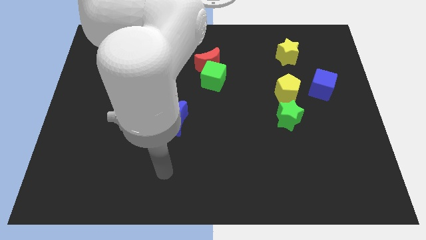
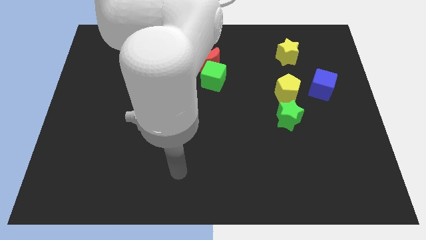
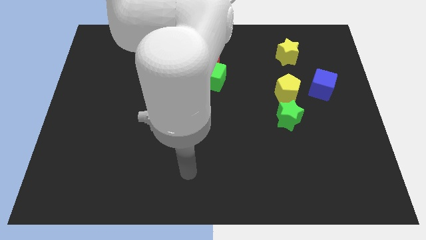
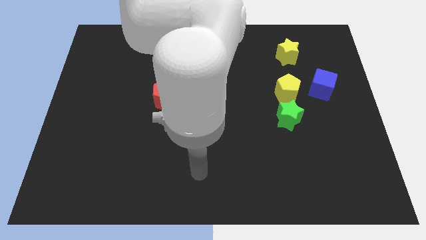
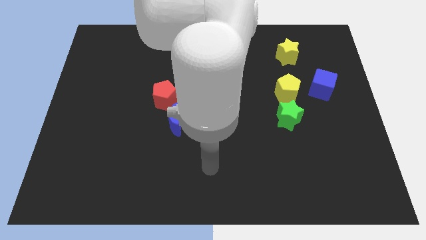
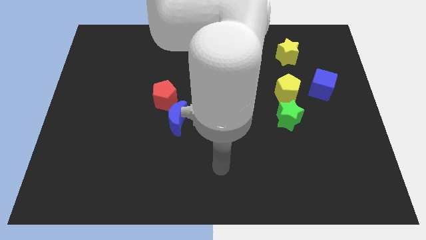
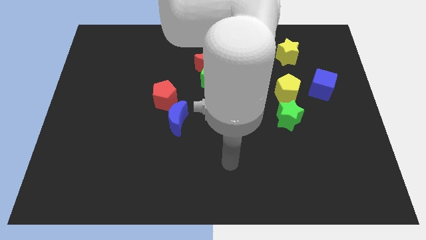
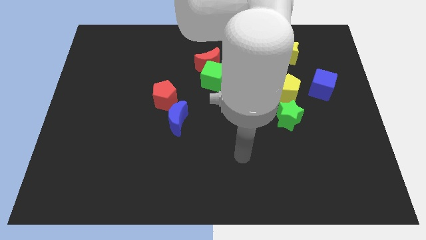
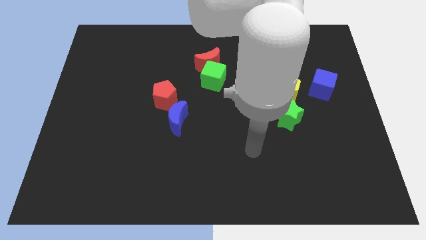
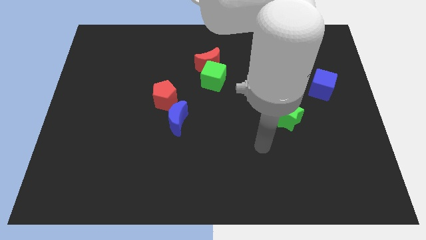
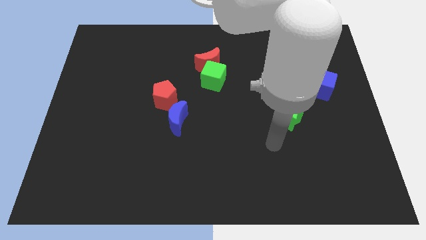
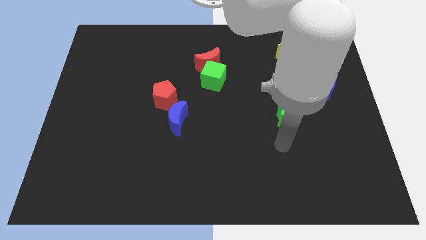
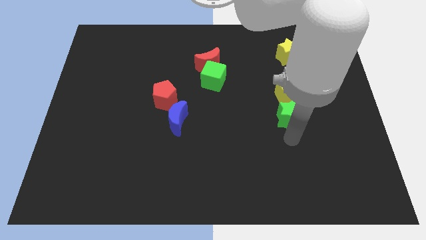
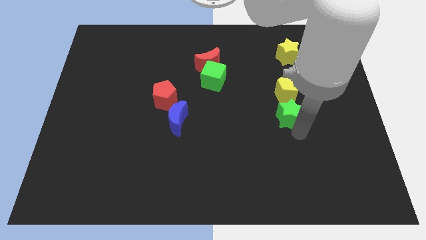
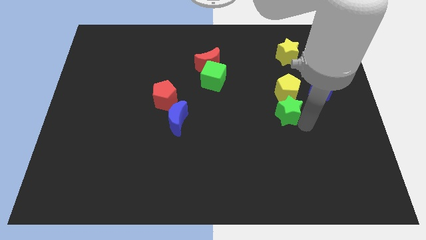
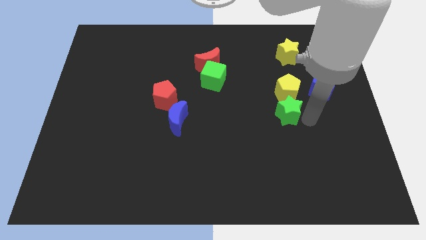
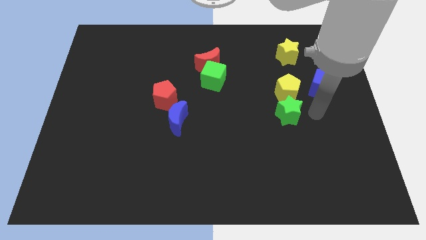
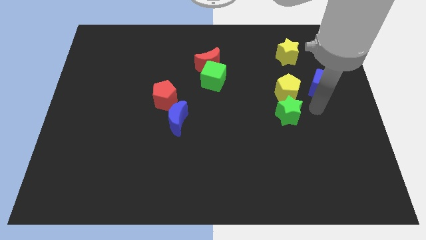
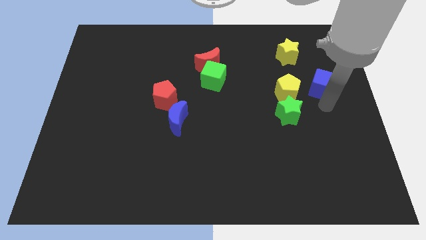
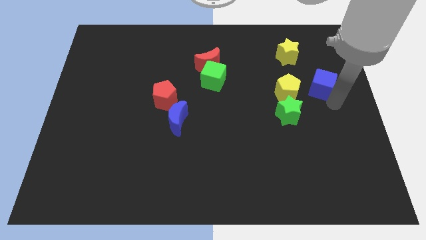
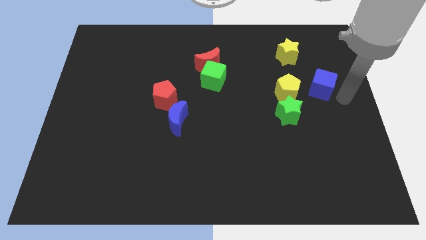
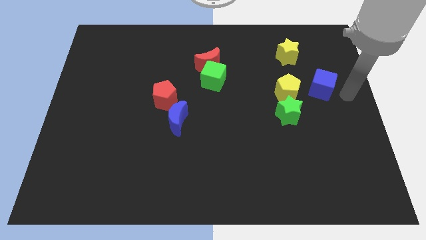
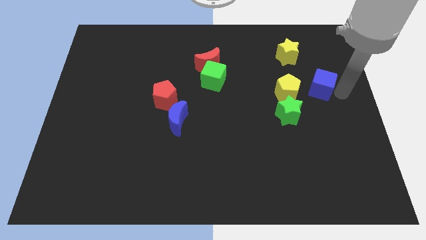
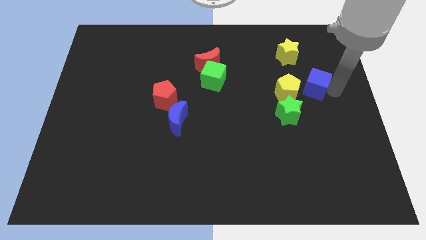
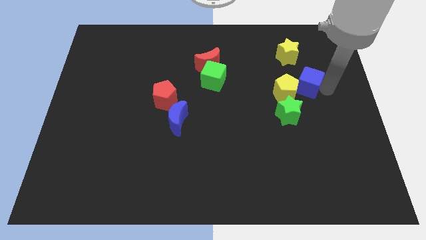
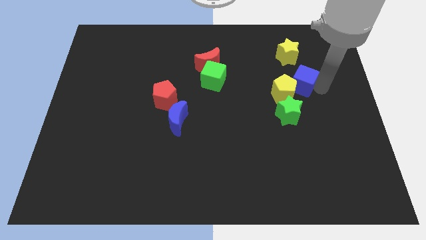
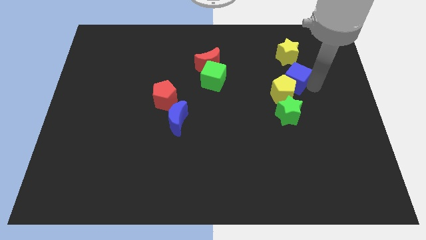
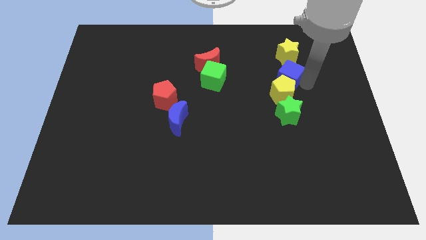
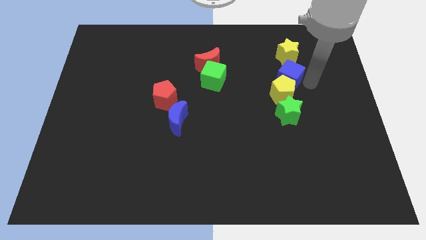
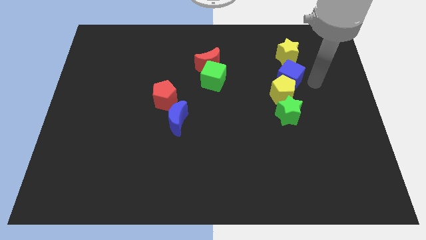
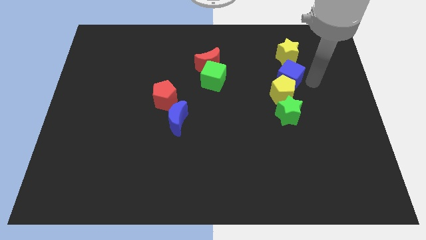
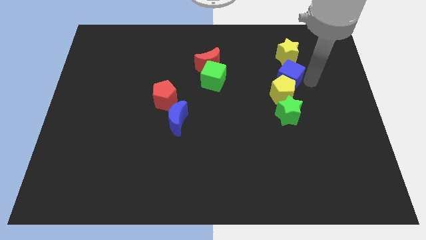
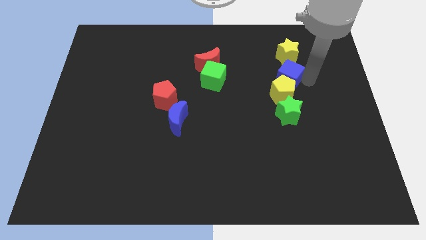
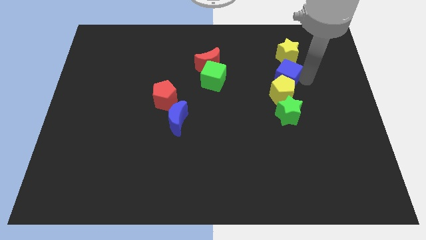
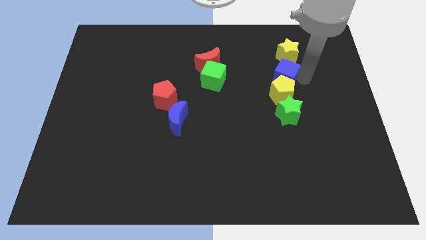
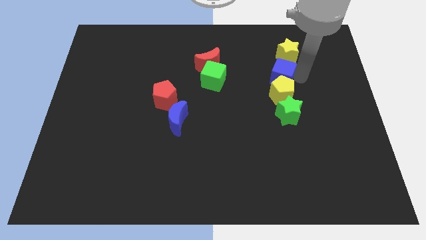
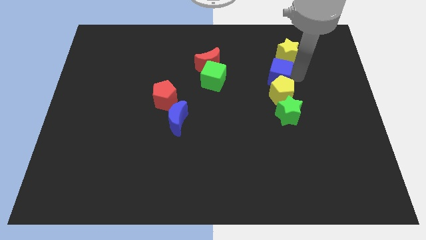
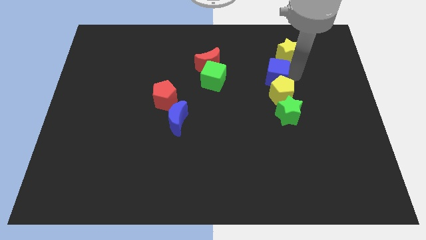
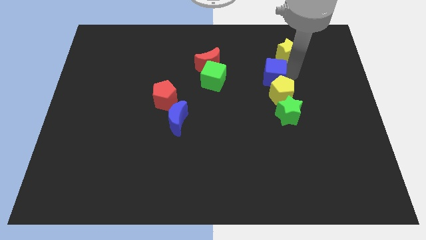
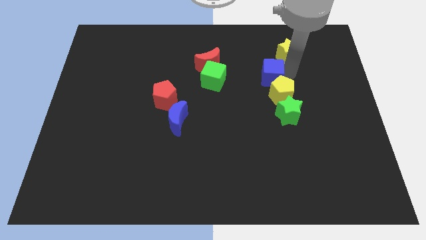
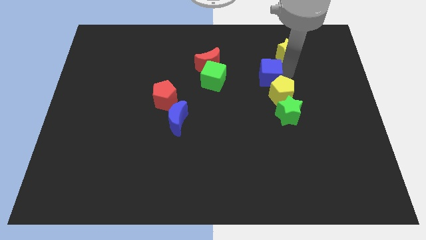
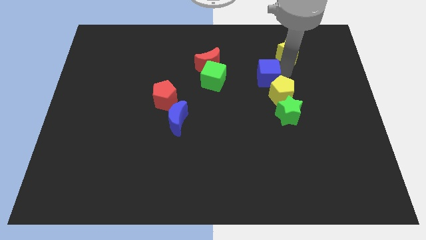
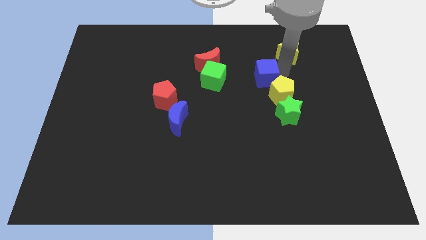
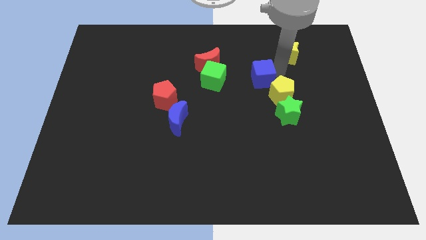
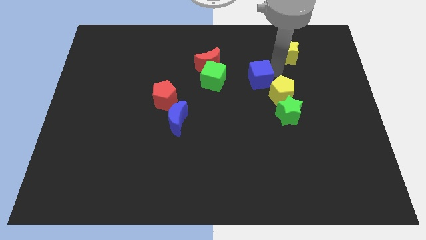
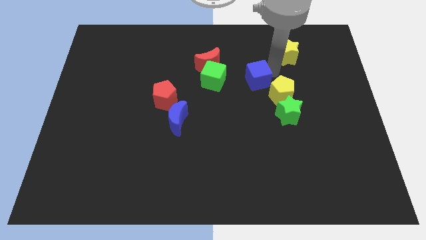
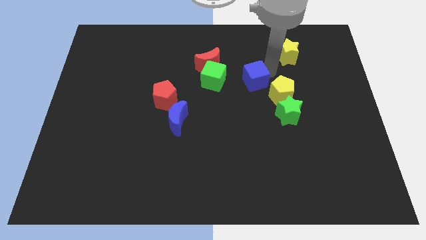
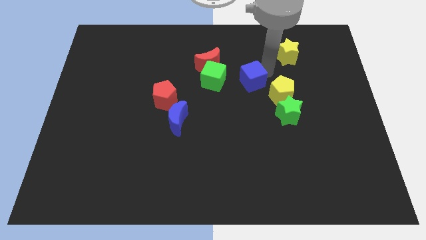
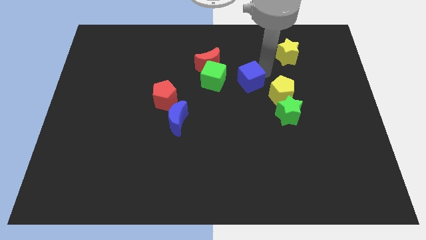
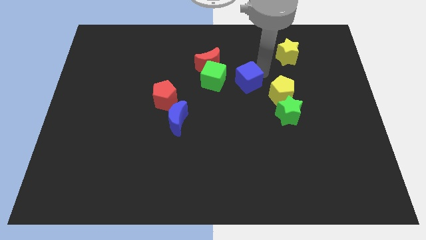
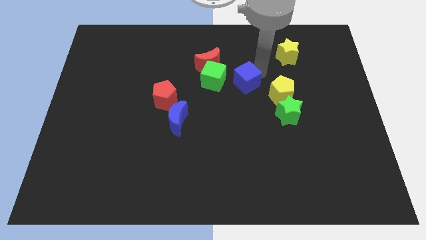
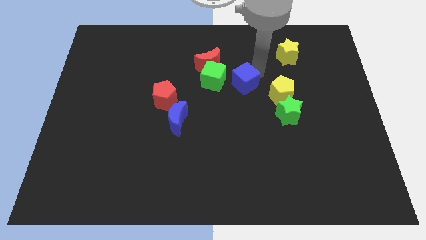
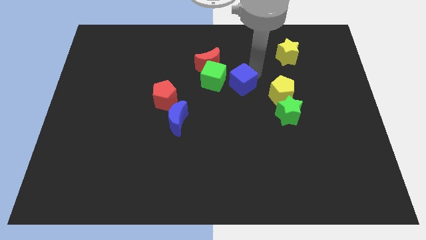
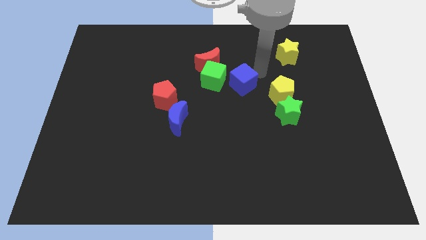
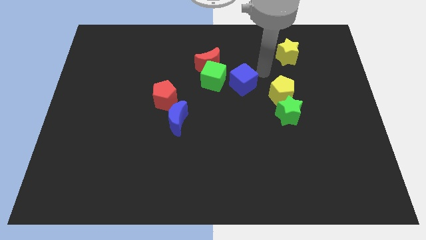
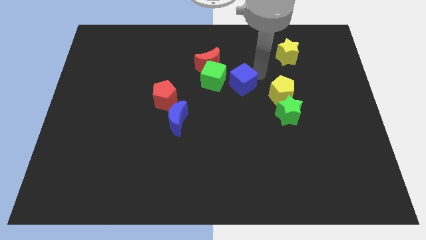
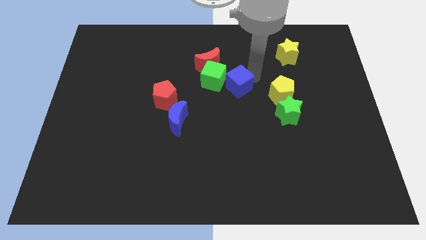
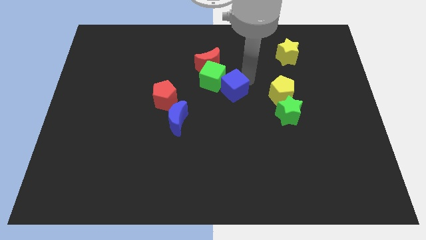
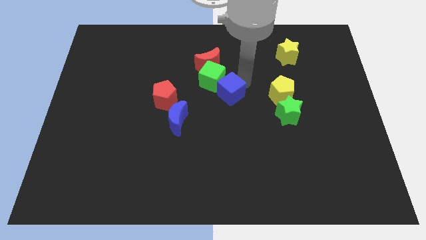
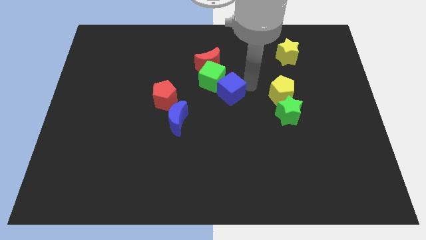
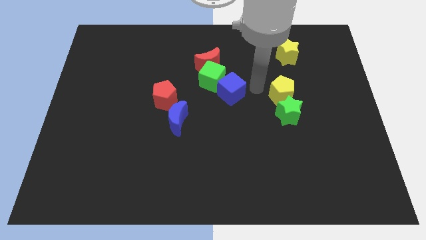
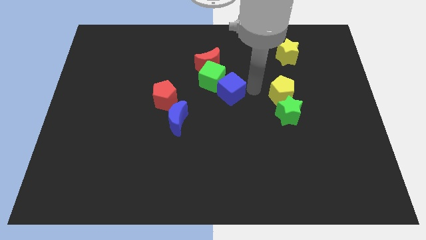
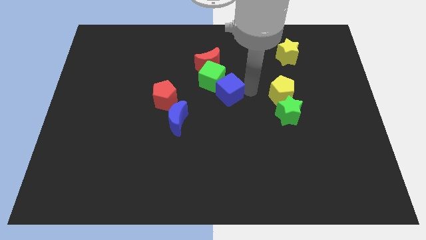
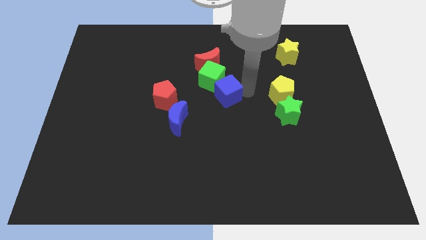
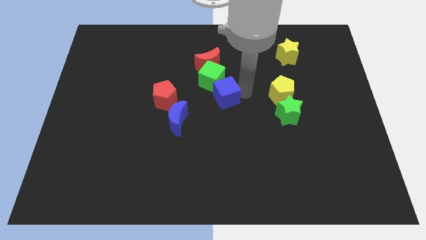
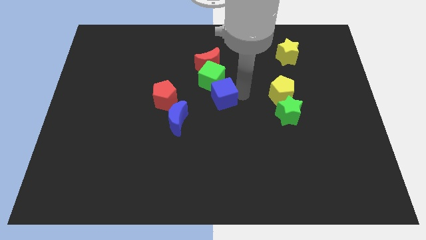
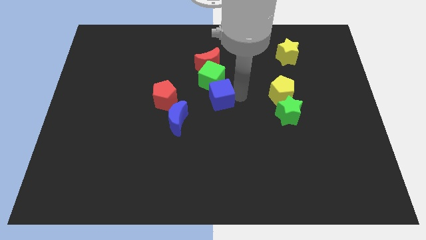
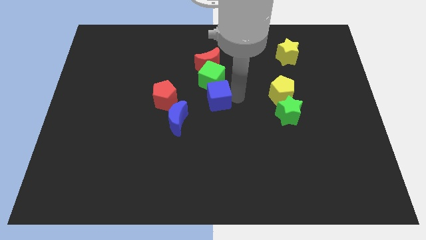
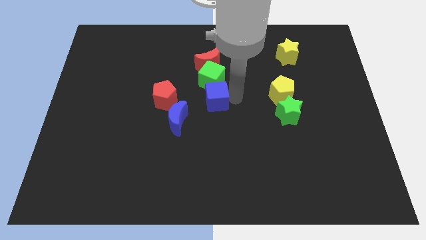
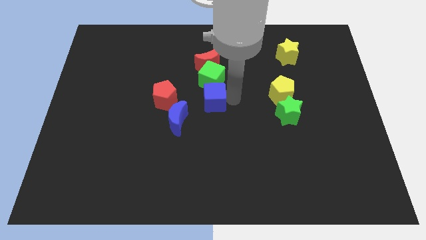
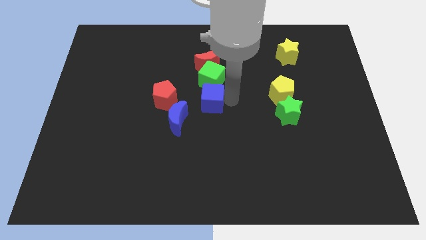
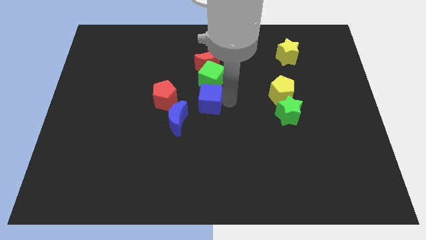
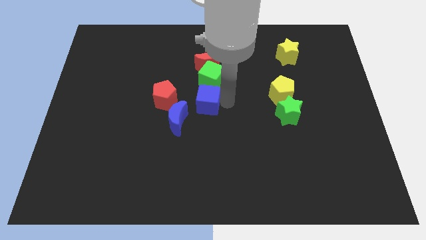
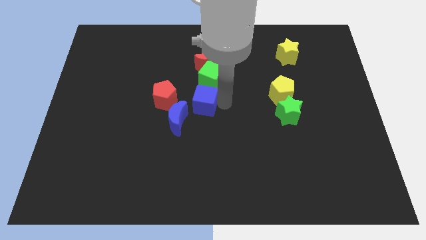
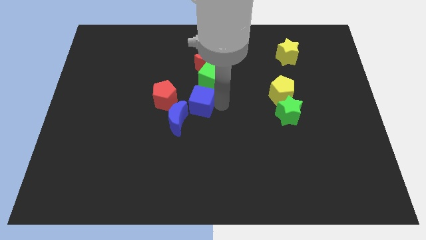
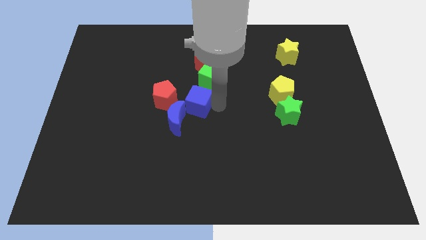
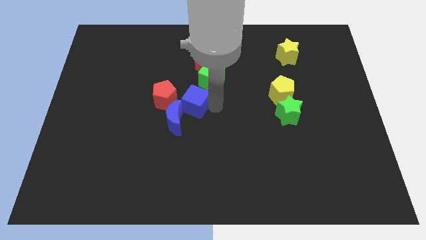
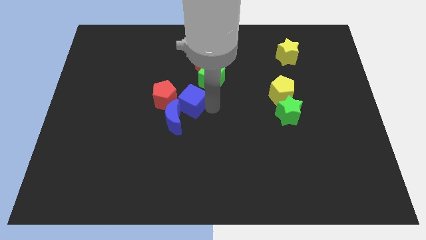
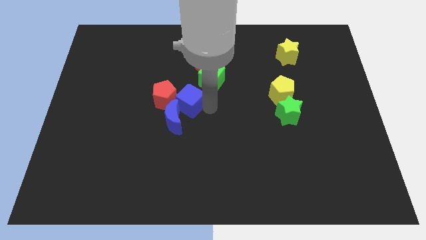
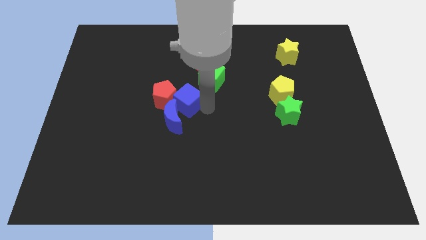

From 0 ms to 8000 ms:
move the blue cube to the red pentagon
